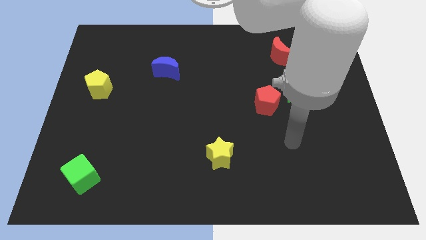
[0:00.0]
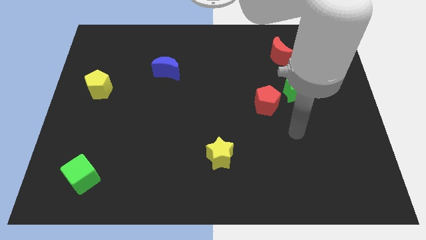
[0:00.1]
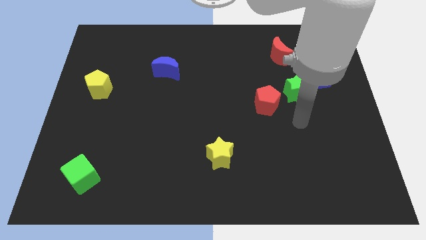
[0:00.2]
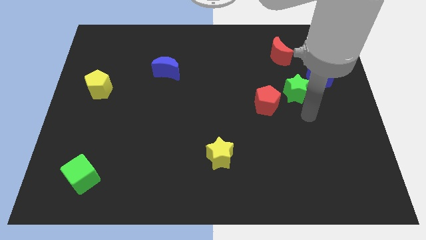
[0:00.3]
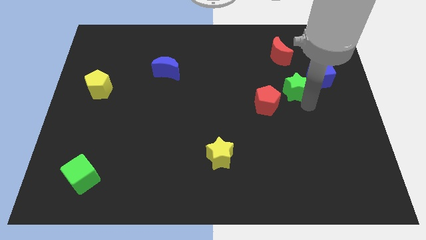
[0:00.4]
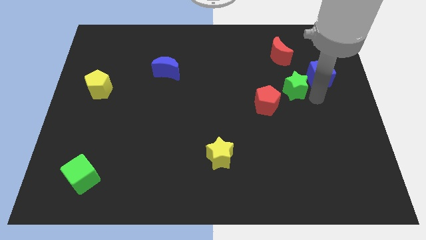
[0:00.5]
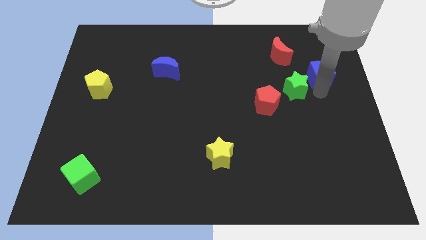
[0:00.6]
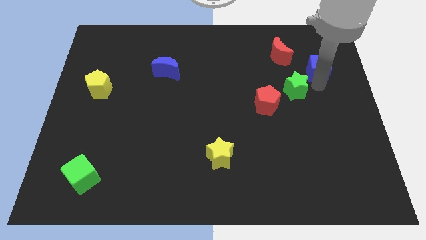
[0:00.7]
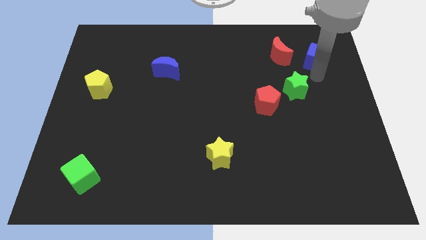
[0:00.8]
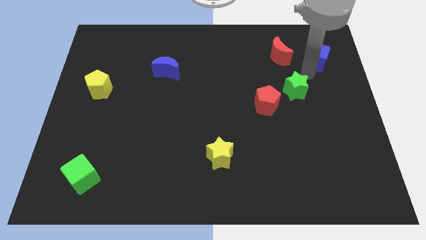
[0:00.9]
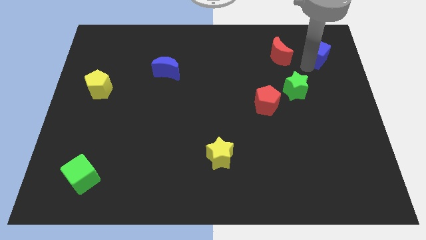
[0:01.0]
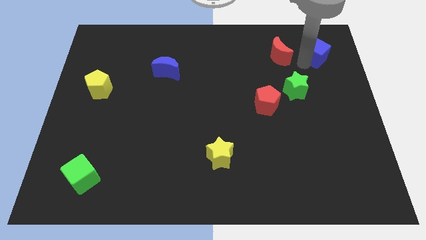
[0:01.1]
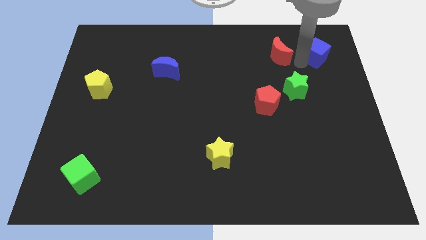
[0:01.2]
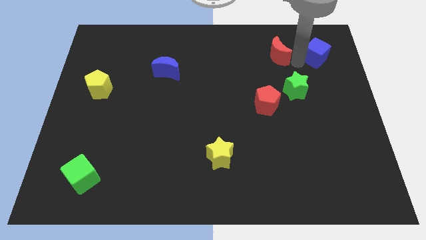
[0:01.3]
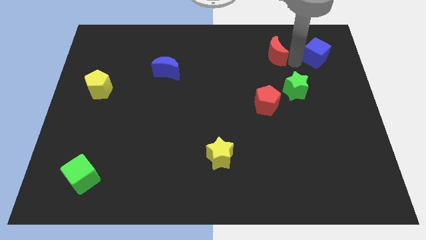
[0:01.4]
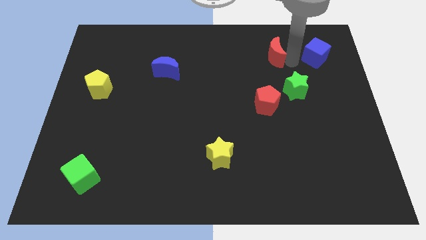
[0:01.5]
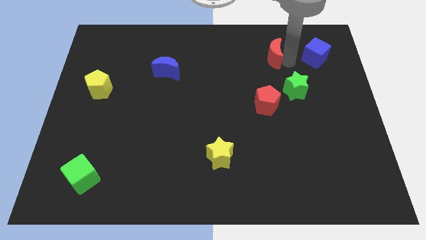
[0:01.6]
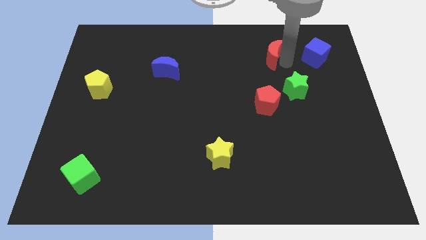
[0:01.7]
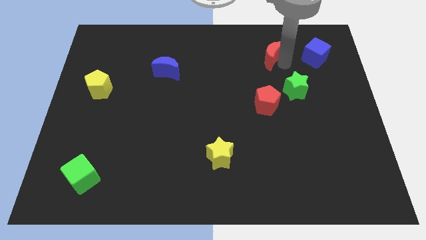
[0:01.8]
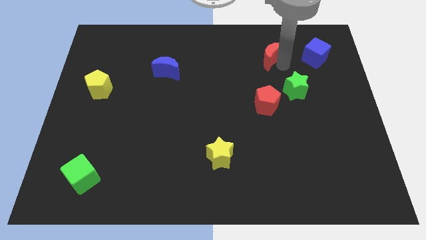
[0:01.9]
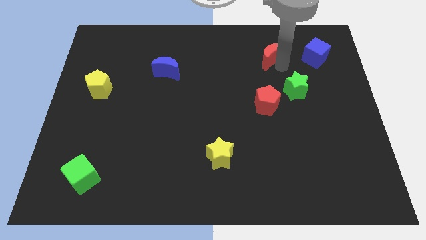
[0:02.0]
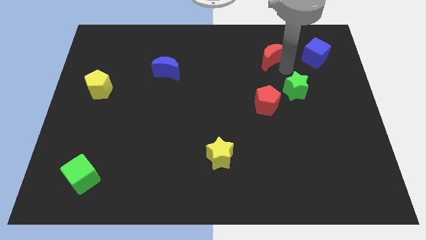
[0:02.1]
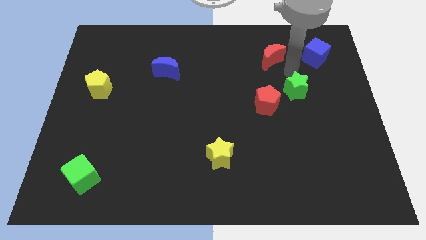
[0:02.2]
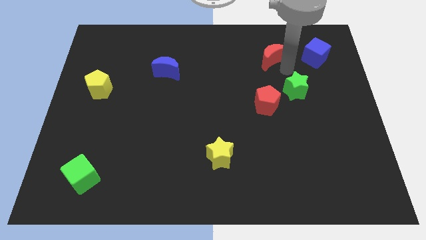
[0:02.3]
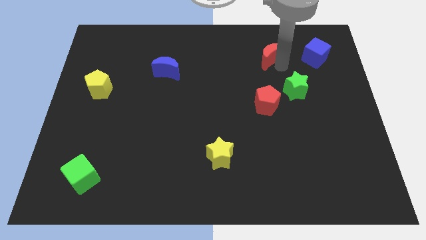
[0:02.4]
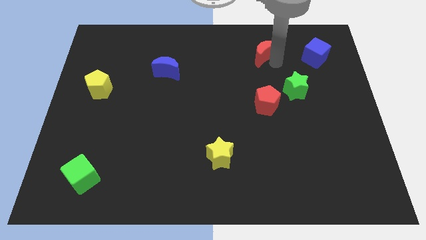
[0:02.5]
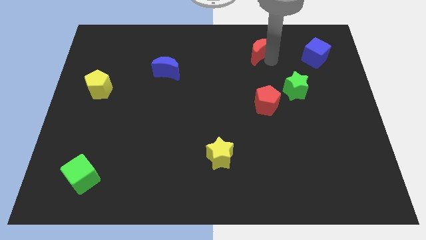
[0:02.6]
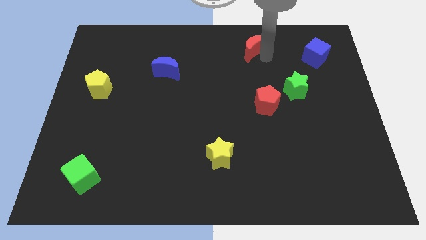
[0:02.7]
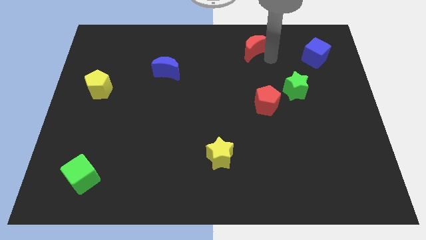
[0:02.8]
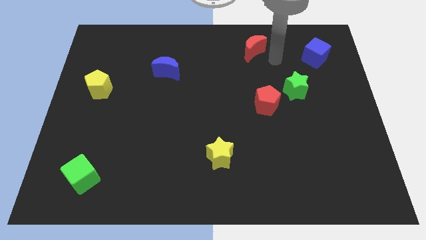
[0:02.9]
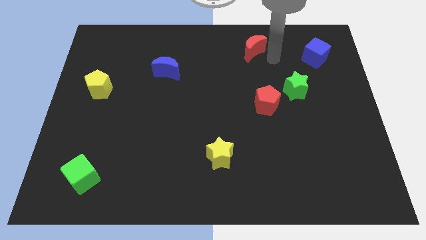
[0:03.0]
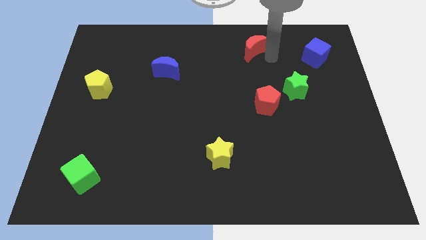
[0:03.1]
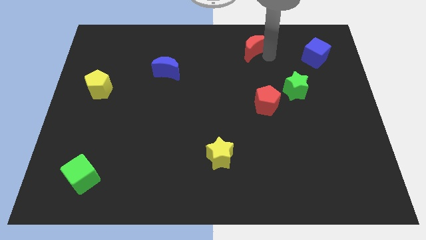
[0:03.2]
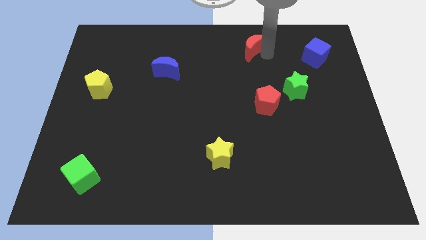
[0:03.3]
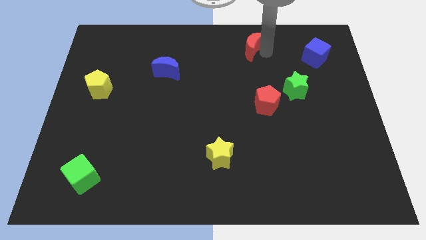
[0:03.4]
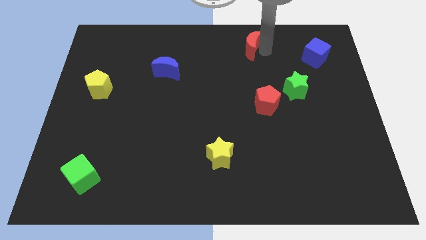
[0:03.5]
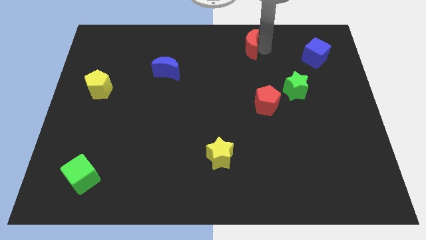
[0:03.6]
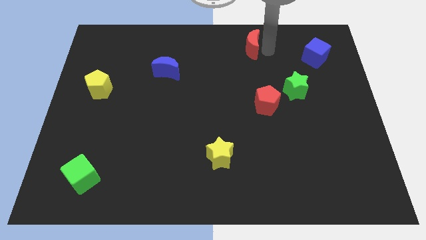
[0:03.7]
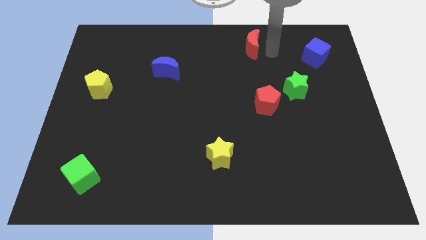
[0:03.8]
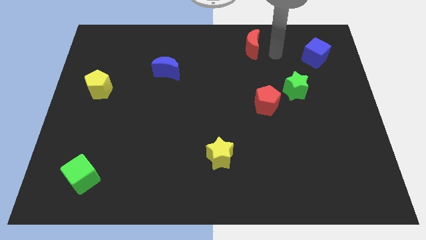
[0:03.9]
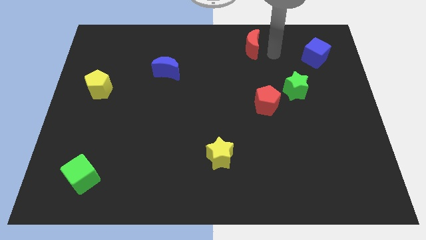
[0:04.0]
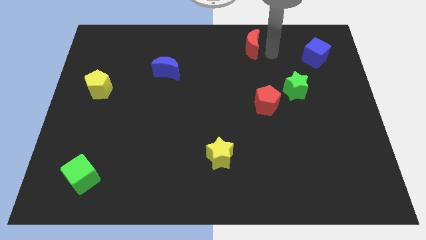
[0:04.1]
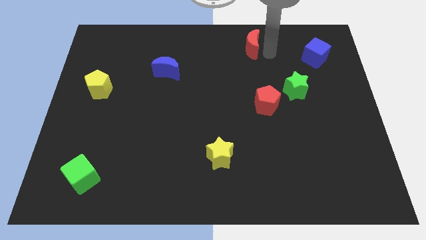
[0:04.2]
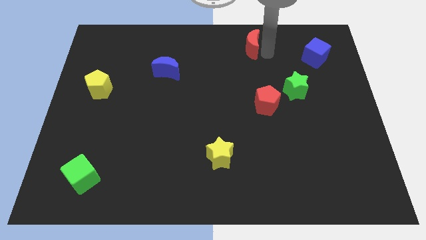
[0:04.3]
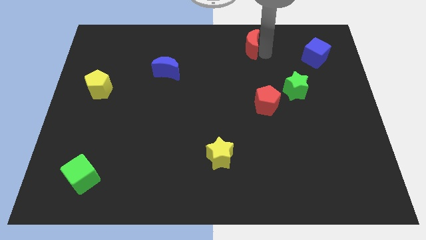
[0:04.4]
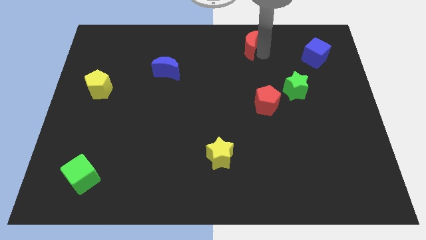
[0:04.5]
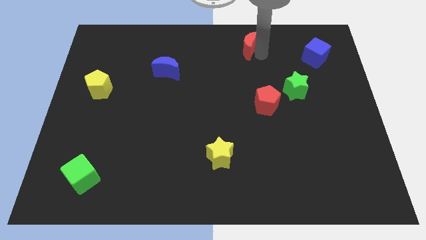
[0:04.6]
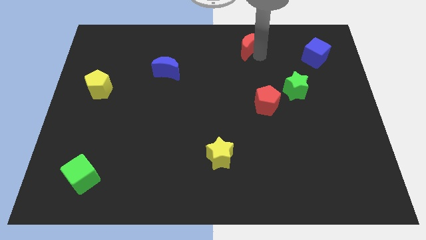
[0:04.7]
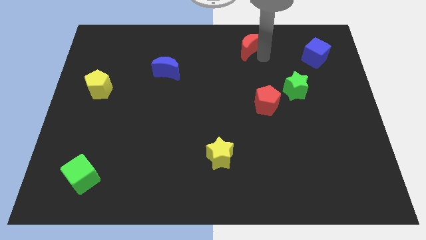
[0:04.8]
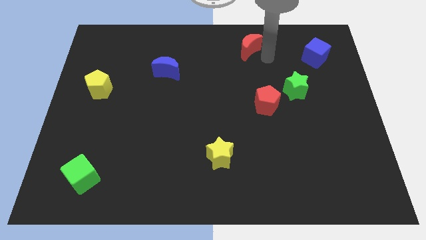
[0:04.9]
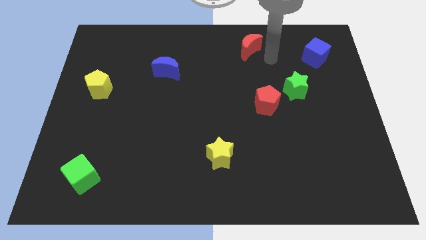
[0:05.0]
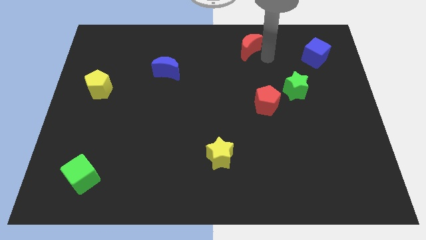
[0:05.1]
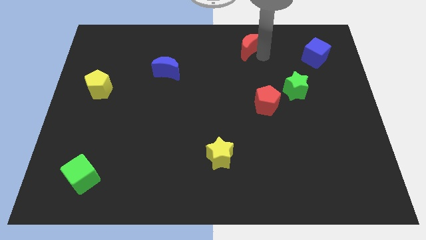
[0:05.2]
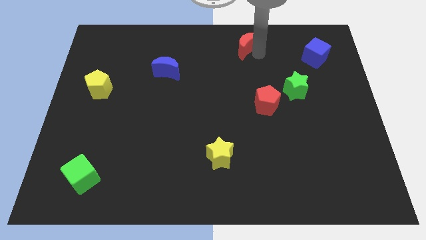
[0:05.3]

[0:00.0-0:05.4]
move the red moon to the top side
